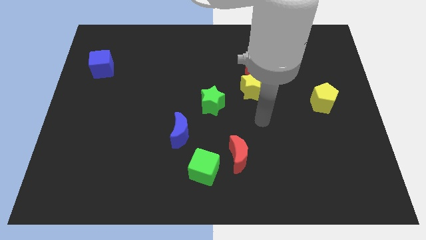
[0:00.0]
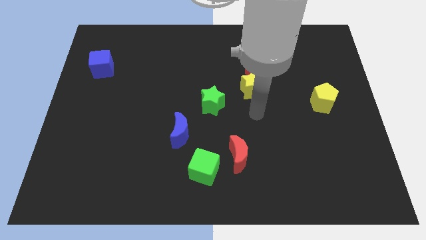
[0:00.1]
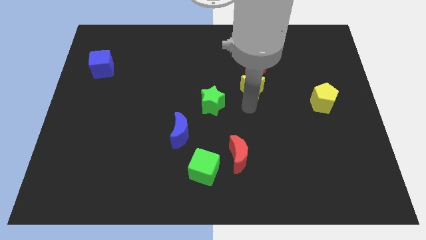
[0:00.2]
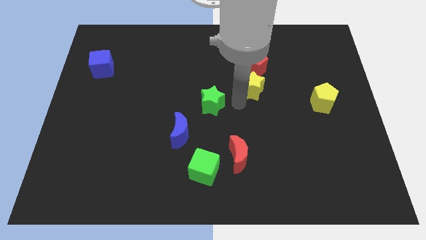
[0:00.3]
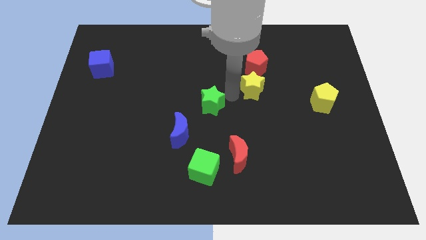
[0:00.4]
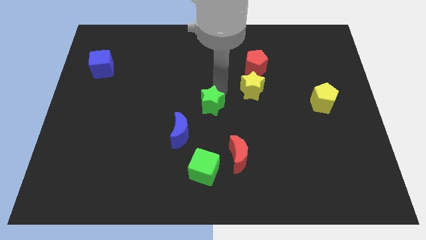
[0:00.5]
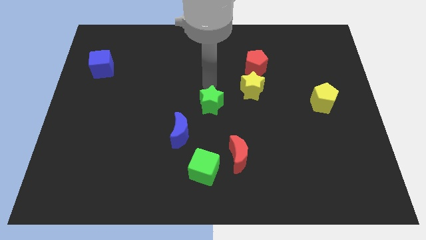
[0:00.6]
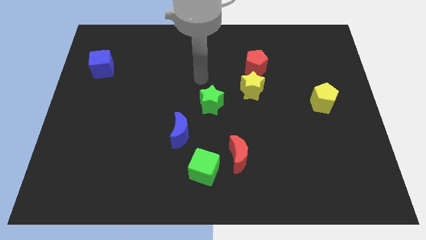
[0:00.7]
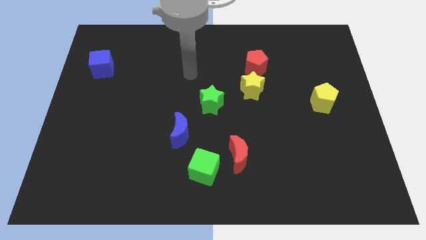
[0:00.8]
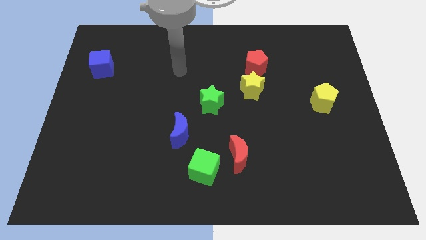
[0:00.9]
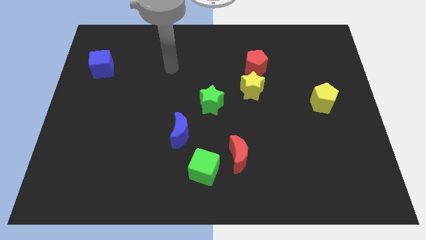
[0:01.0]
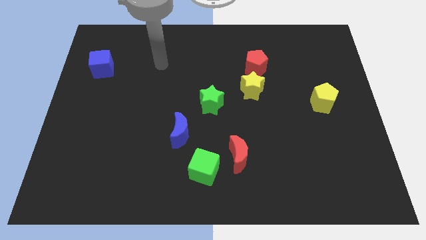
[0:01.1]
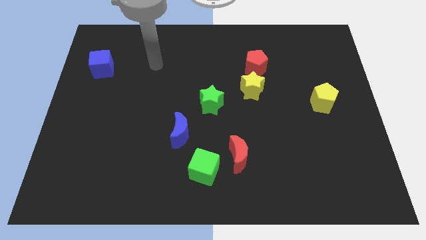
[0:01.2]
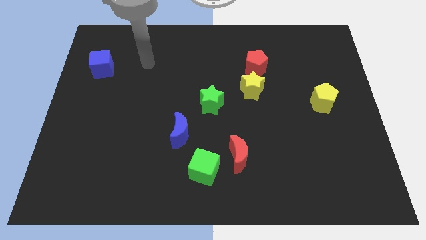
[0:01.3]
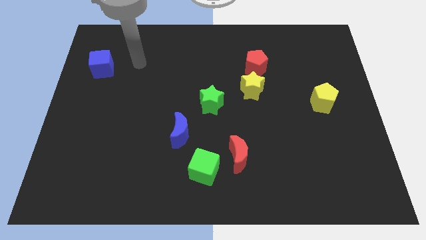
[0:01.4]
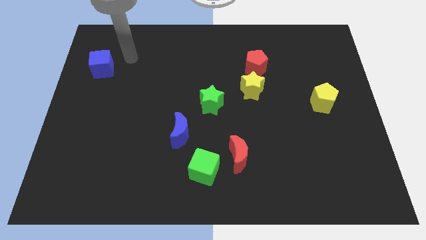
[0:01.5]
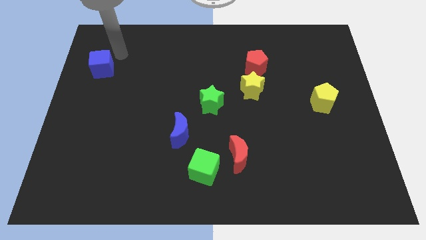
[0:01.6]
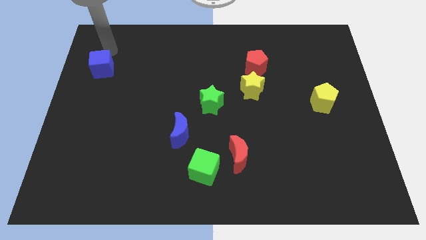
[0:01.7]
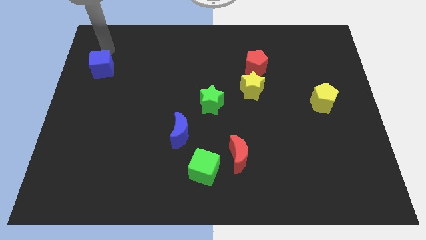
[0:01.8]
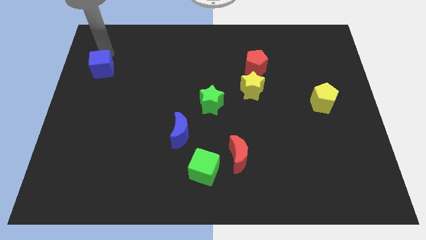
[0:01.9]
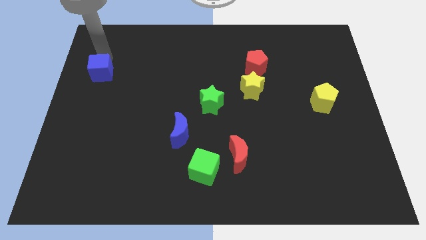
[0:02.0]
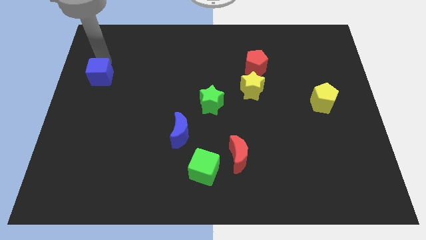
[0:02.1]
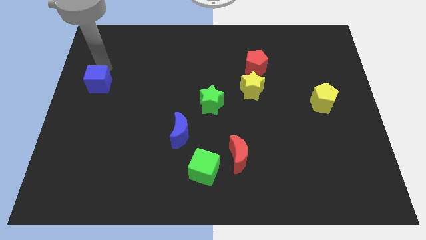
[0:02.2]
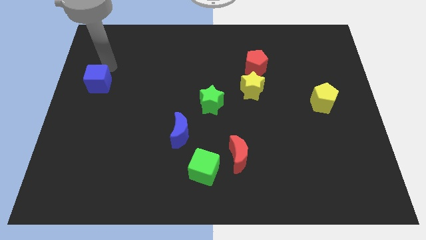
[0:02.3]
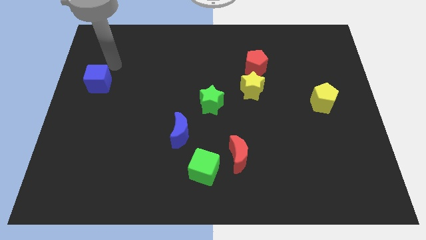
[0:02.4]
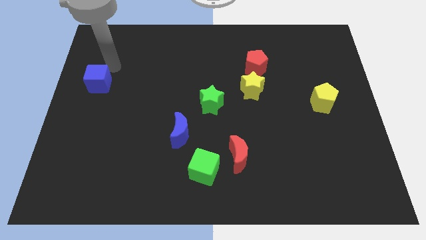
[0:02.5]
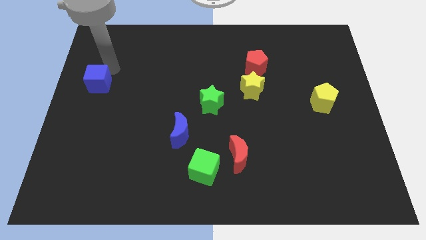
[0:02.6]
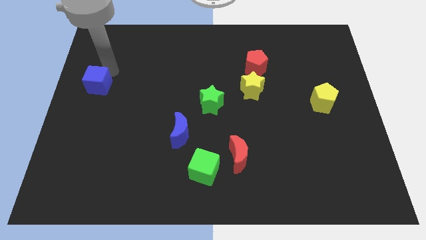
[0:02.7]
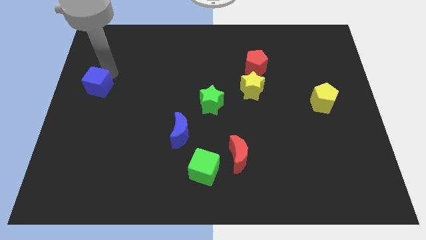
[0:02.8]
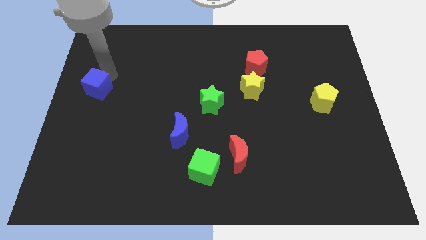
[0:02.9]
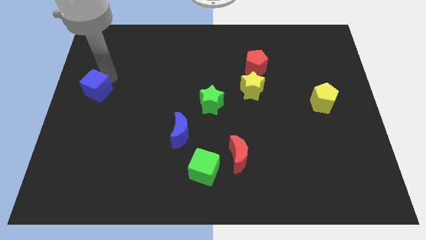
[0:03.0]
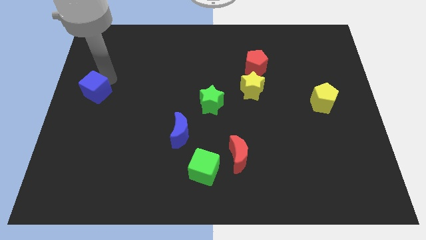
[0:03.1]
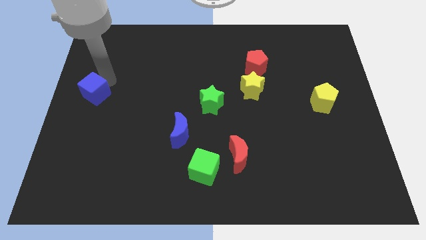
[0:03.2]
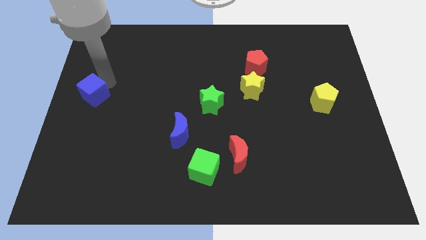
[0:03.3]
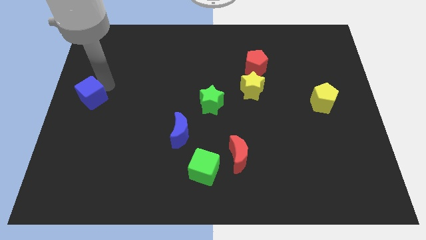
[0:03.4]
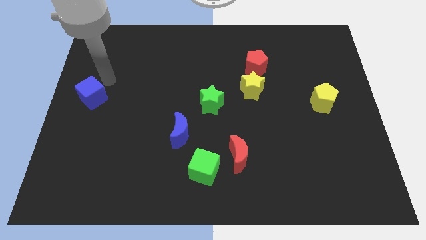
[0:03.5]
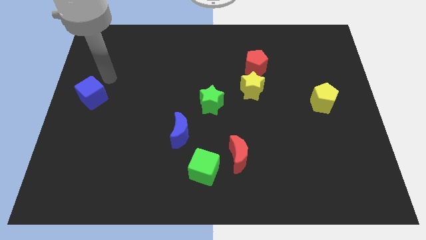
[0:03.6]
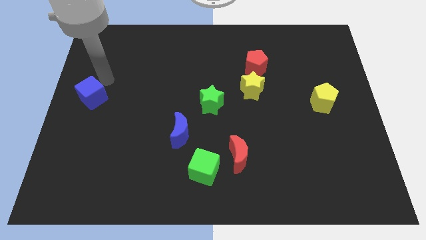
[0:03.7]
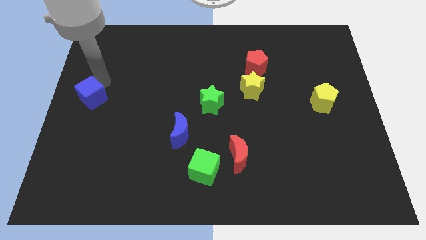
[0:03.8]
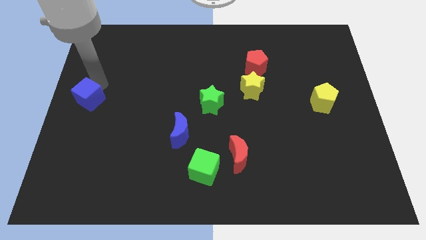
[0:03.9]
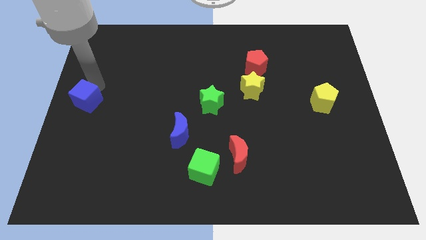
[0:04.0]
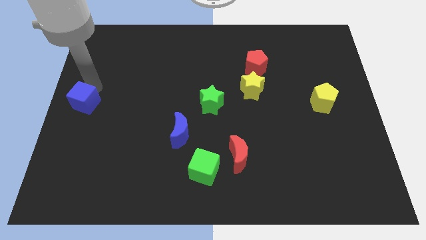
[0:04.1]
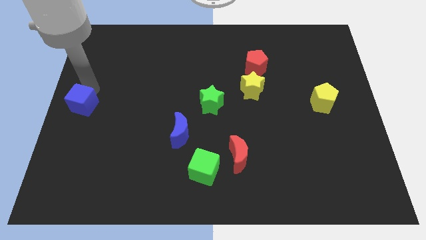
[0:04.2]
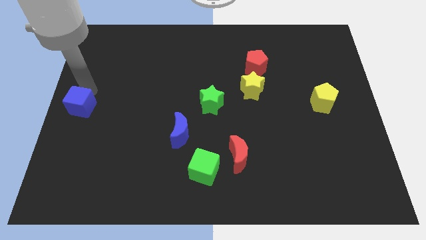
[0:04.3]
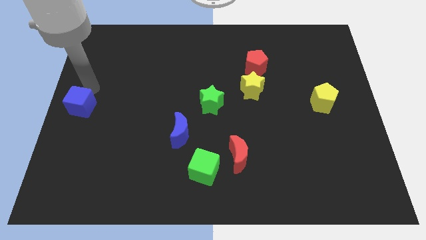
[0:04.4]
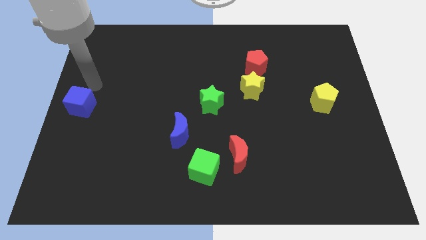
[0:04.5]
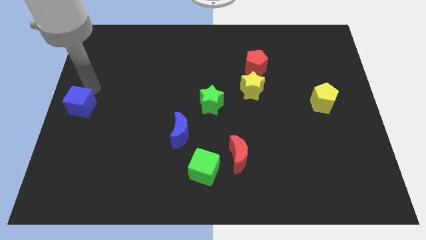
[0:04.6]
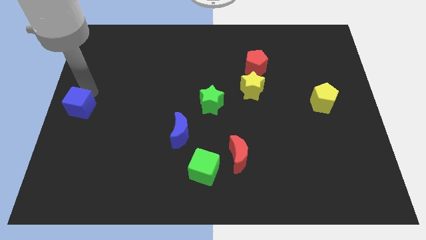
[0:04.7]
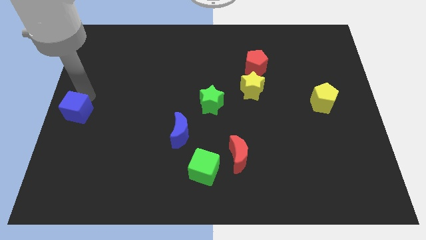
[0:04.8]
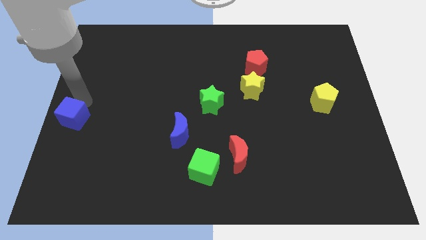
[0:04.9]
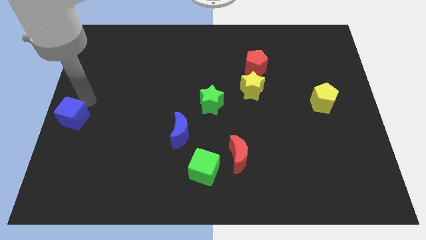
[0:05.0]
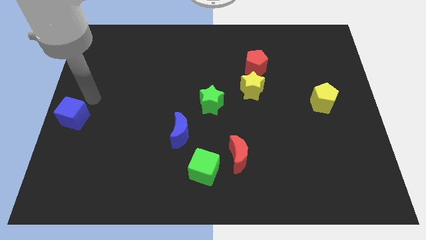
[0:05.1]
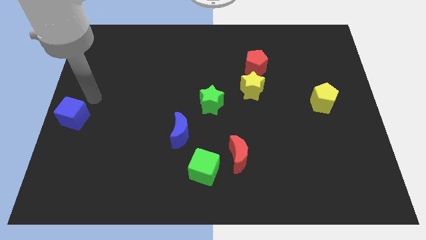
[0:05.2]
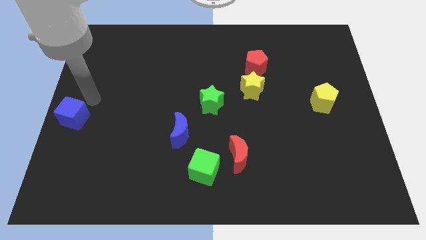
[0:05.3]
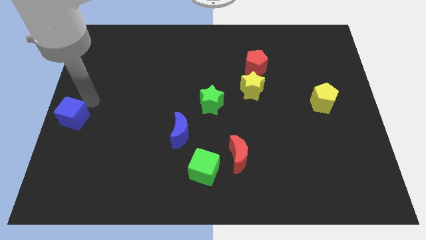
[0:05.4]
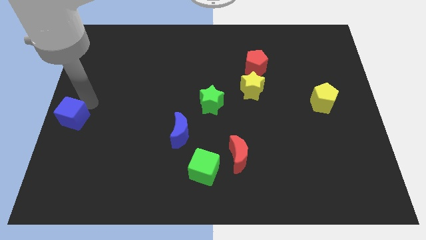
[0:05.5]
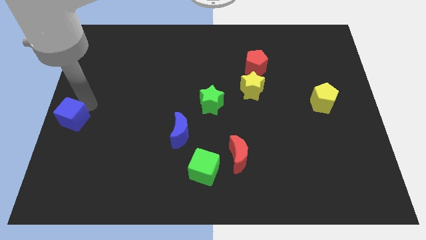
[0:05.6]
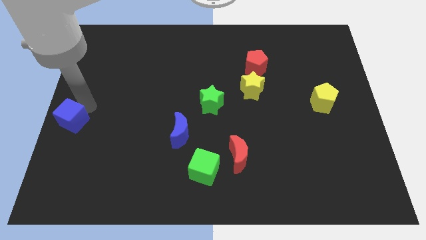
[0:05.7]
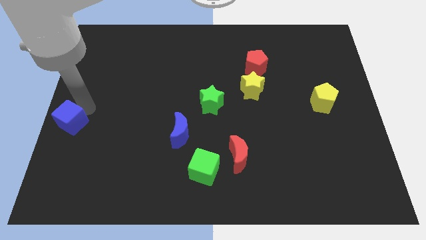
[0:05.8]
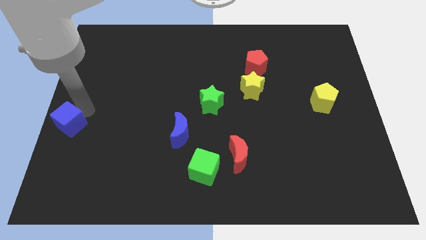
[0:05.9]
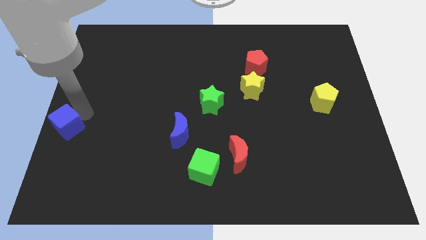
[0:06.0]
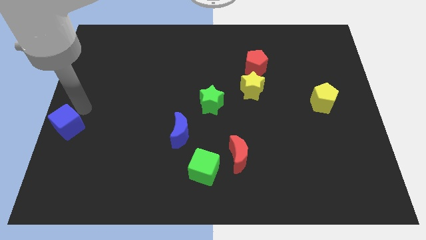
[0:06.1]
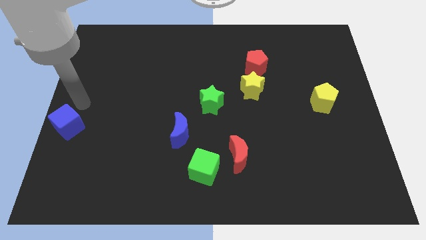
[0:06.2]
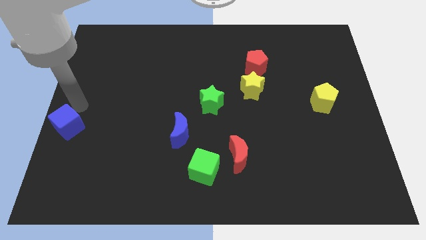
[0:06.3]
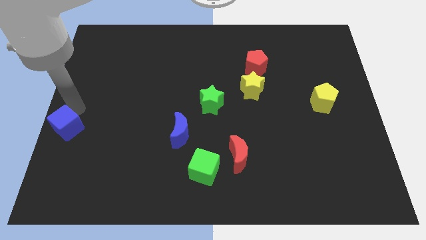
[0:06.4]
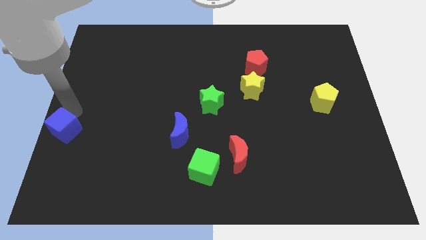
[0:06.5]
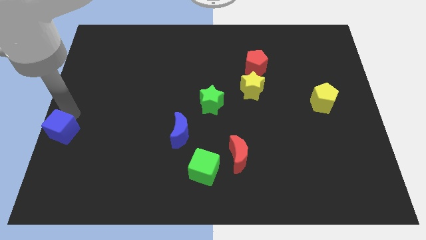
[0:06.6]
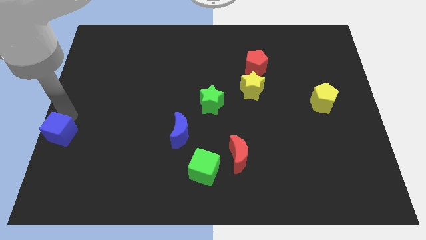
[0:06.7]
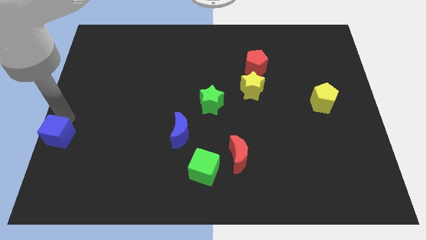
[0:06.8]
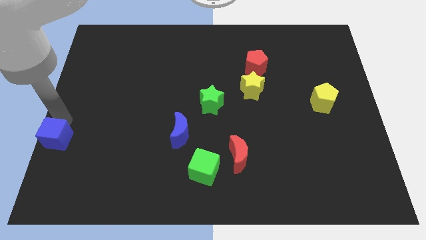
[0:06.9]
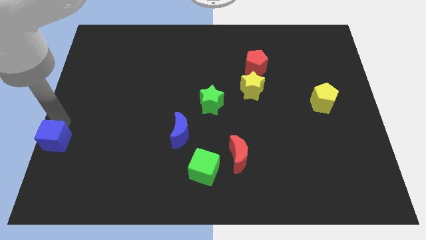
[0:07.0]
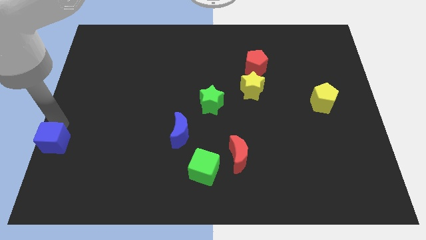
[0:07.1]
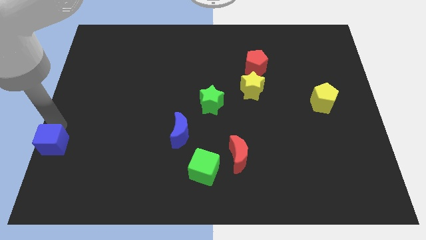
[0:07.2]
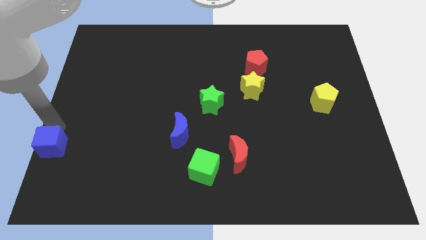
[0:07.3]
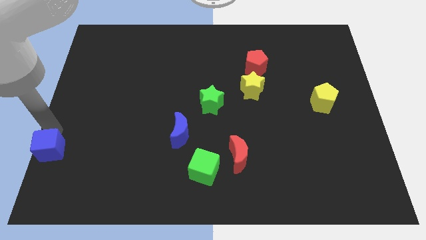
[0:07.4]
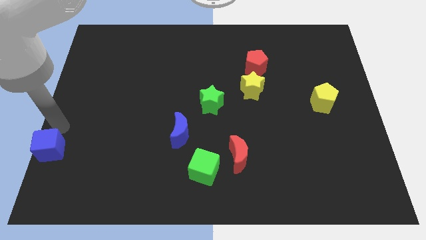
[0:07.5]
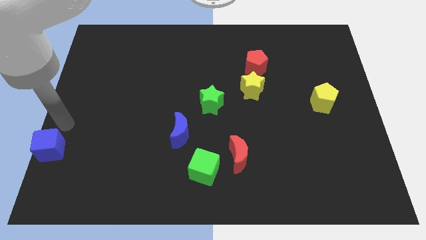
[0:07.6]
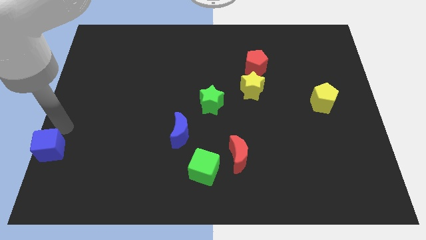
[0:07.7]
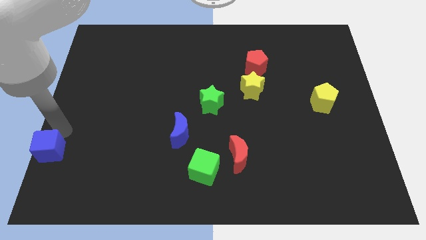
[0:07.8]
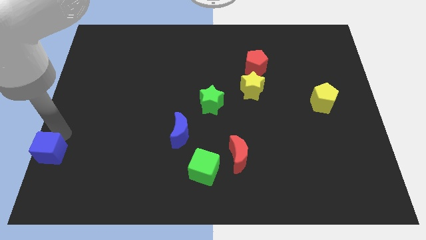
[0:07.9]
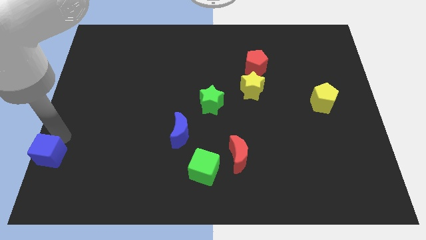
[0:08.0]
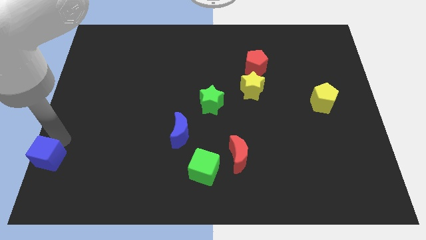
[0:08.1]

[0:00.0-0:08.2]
move the blue cube to the bottom left
